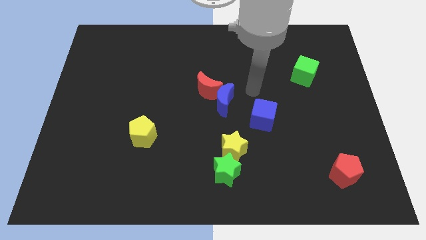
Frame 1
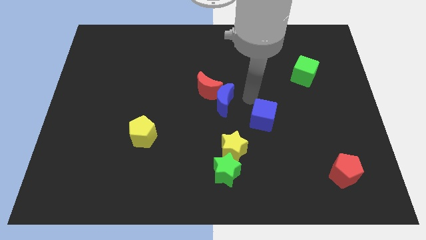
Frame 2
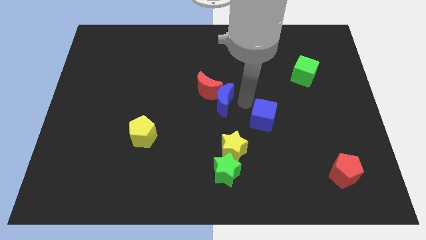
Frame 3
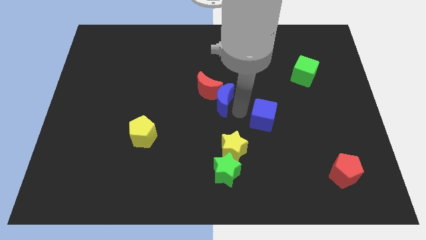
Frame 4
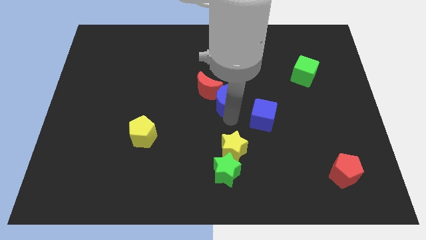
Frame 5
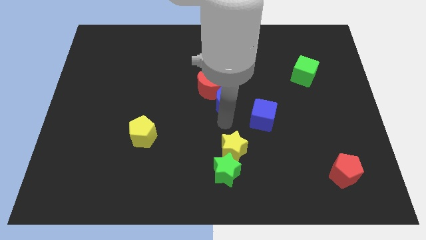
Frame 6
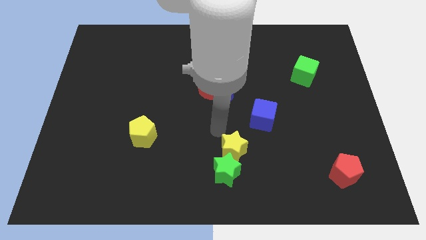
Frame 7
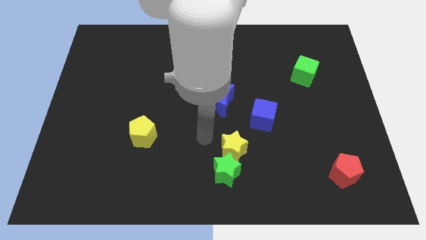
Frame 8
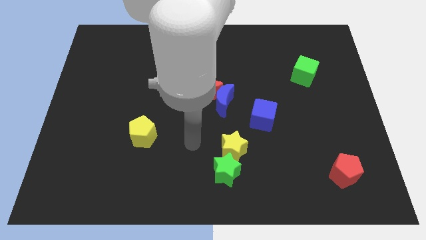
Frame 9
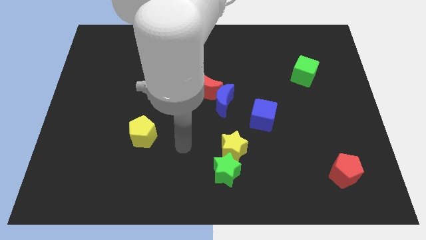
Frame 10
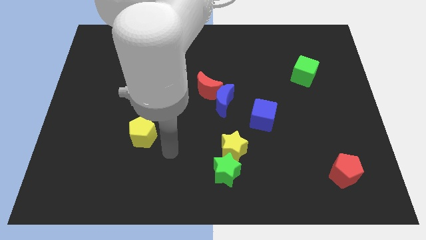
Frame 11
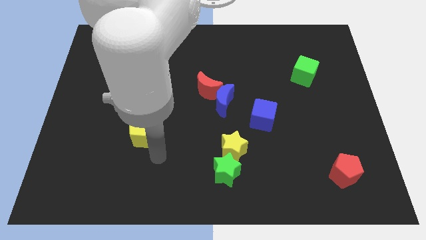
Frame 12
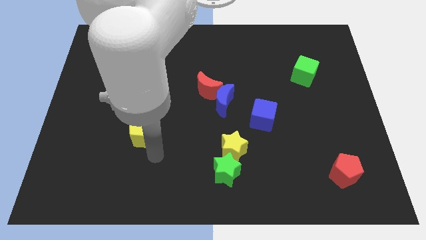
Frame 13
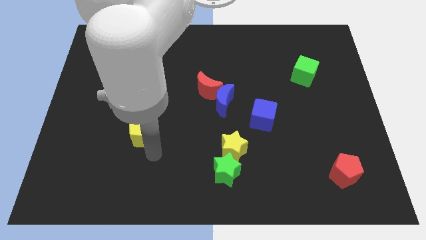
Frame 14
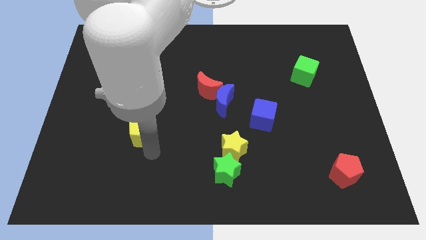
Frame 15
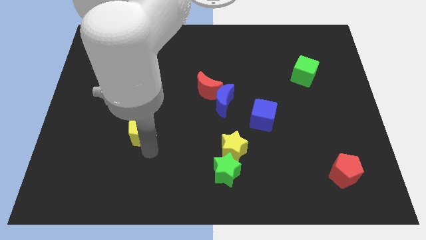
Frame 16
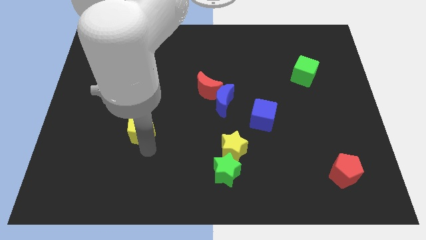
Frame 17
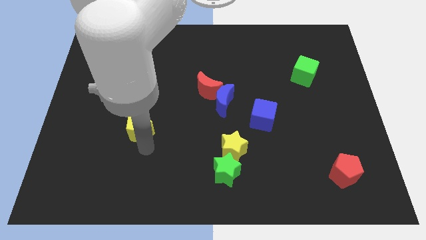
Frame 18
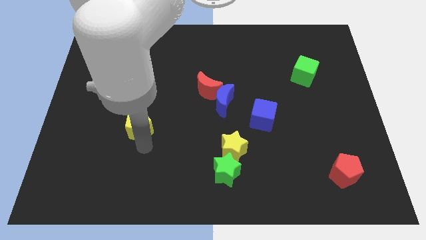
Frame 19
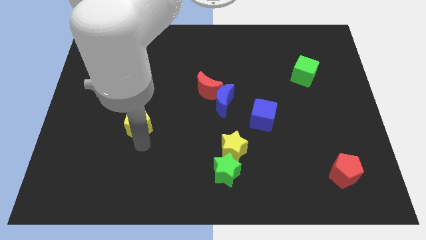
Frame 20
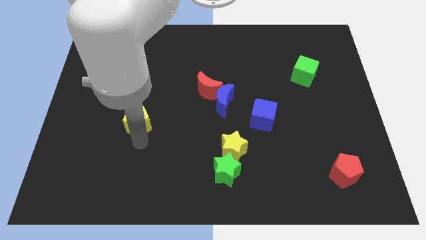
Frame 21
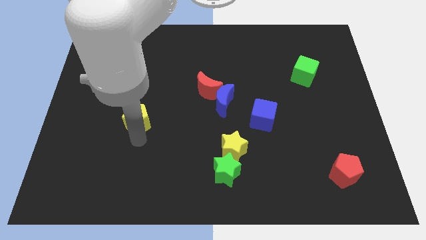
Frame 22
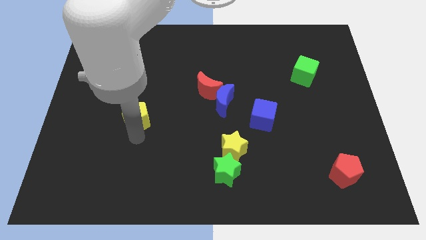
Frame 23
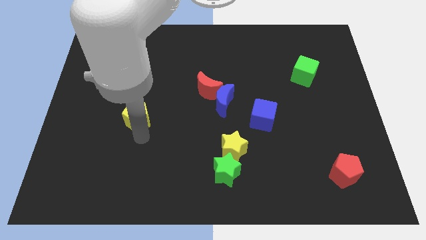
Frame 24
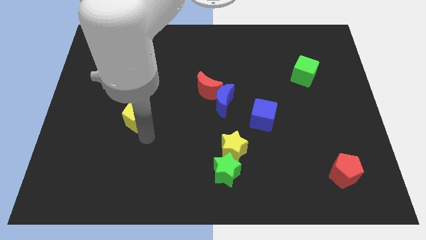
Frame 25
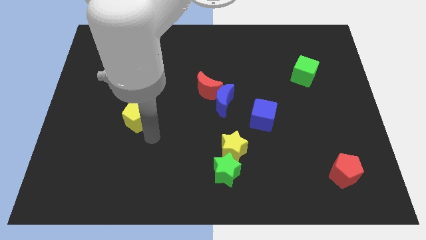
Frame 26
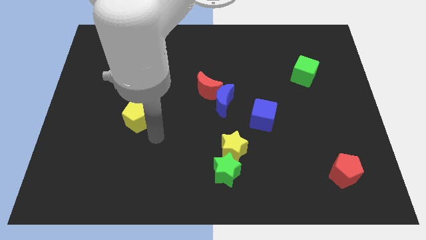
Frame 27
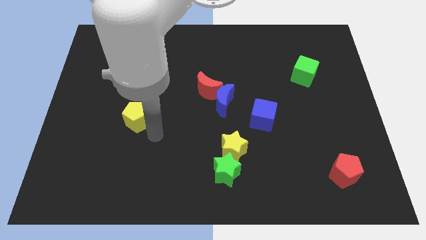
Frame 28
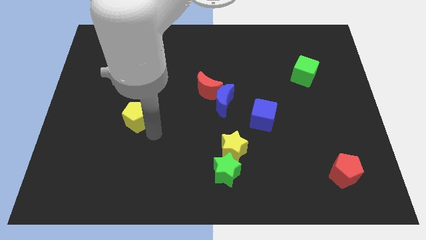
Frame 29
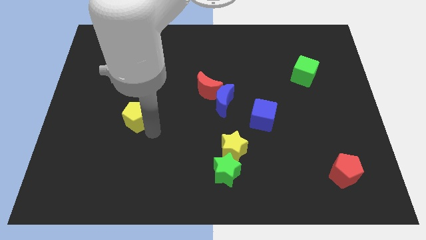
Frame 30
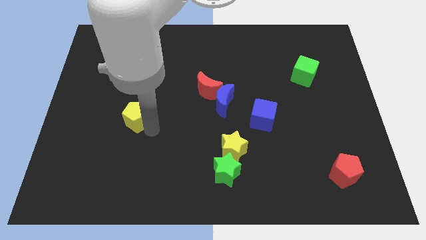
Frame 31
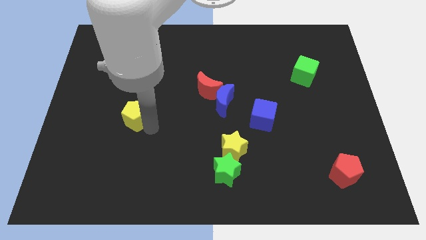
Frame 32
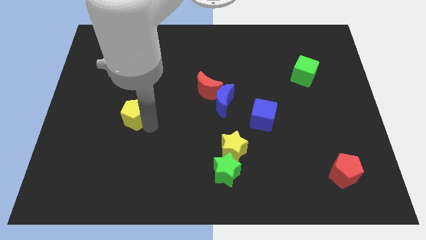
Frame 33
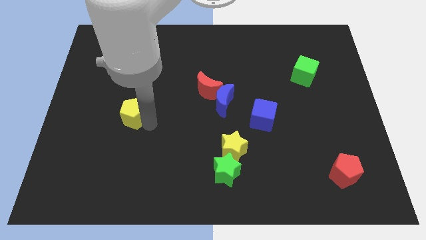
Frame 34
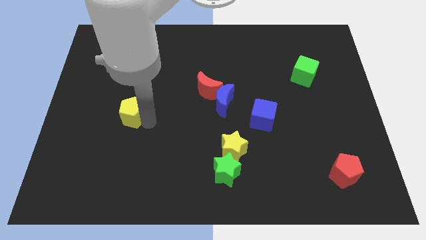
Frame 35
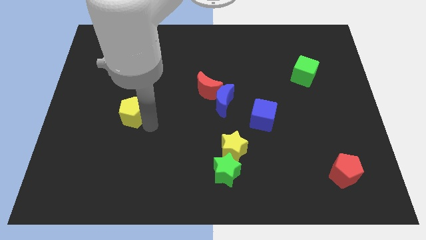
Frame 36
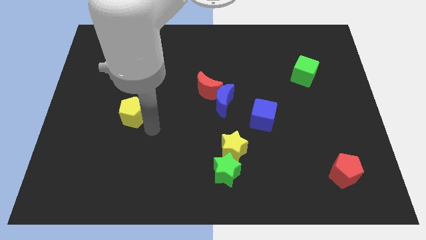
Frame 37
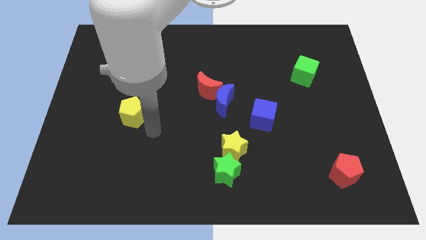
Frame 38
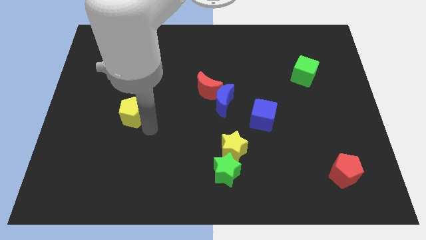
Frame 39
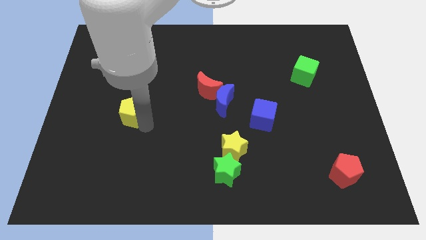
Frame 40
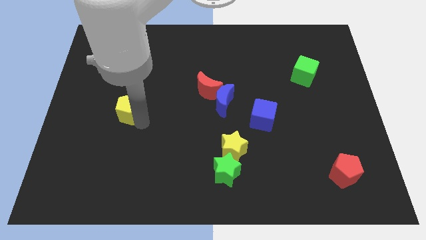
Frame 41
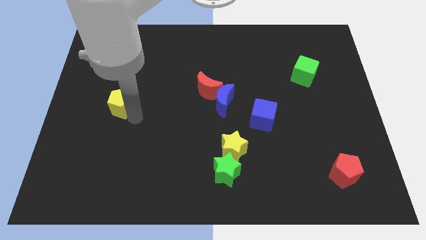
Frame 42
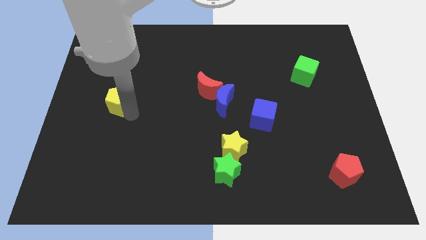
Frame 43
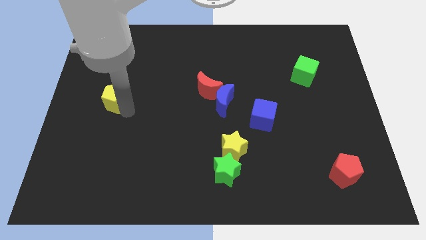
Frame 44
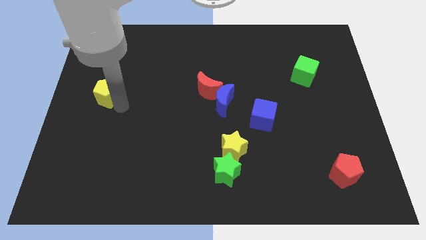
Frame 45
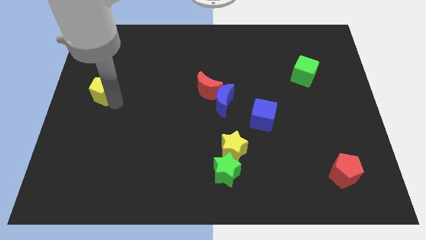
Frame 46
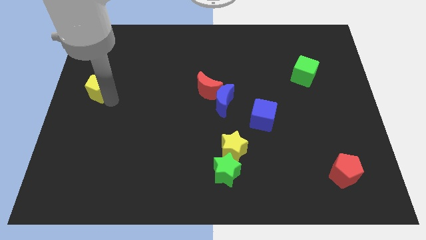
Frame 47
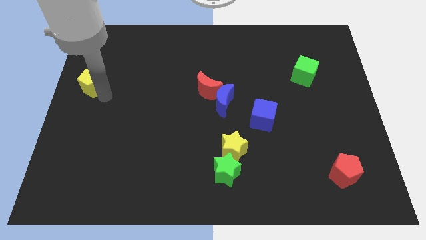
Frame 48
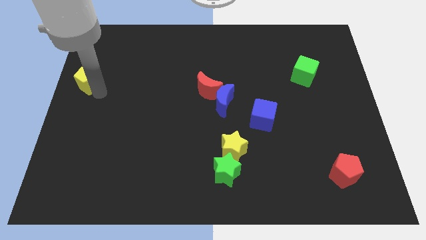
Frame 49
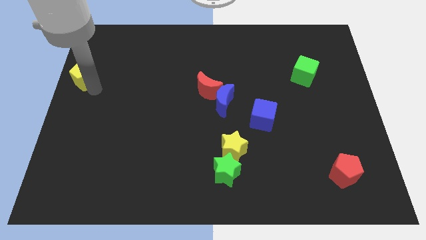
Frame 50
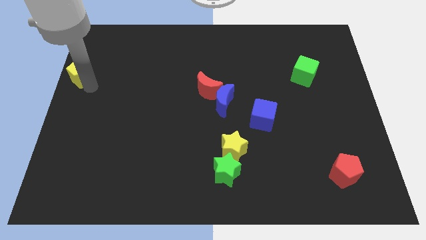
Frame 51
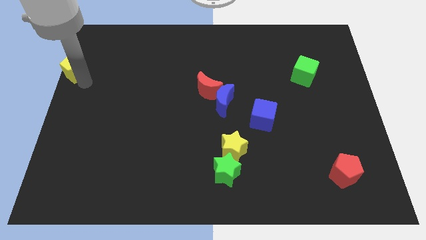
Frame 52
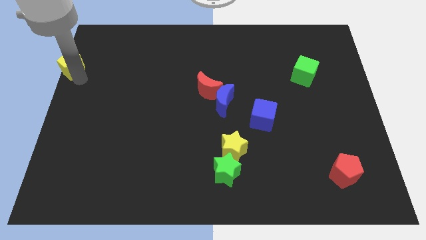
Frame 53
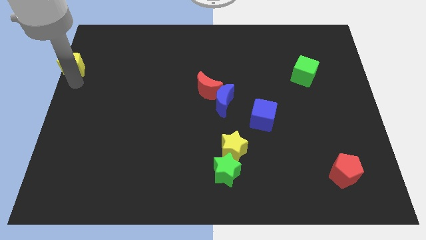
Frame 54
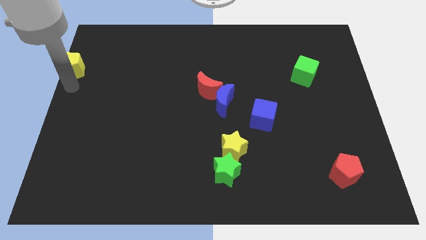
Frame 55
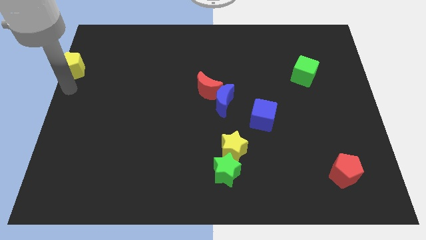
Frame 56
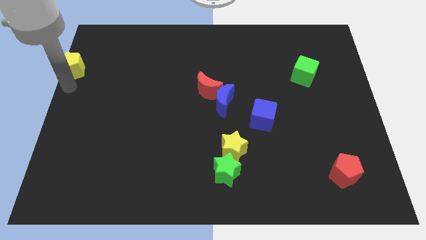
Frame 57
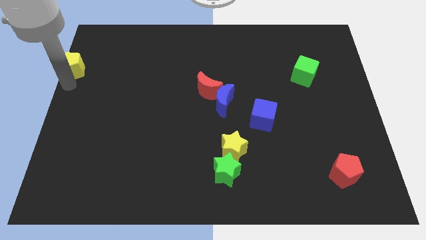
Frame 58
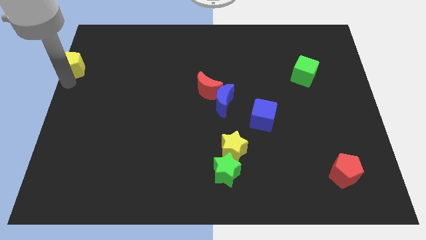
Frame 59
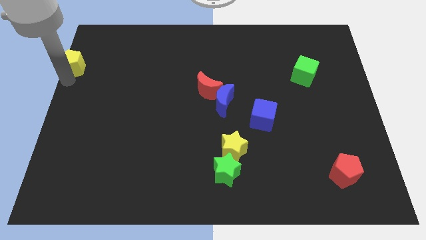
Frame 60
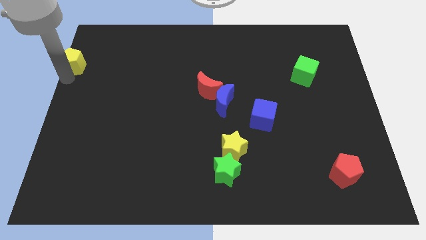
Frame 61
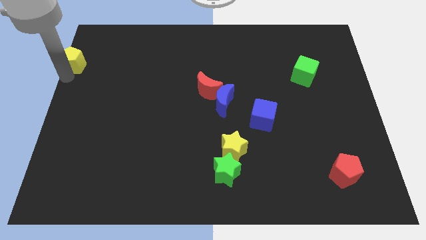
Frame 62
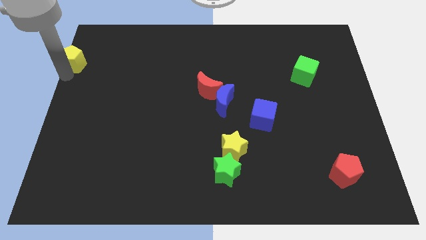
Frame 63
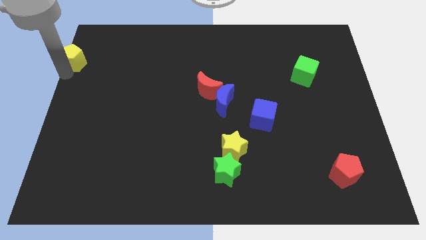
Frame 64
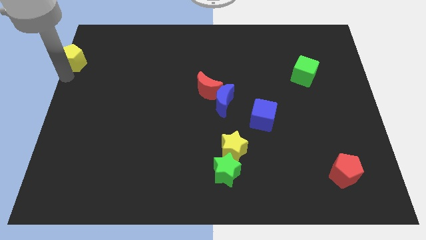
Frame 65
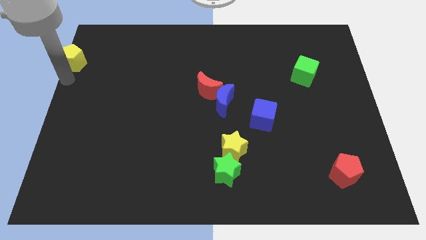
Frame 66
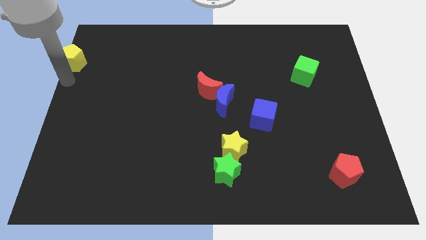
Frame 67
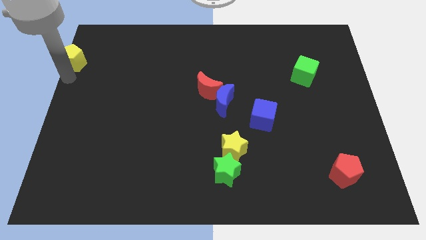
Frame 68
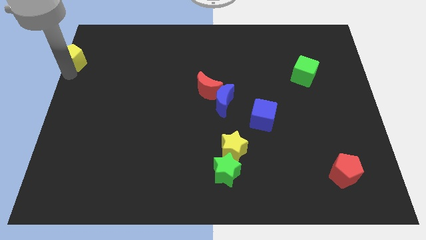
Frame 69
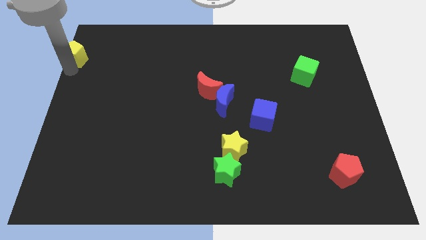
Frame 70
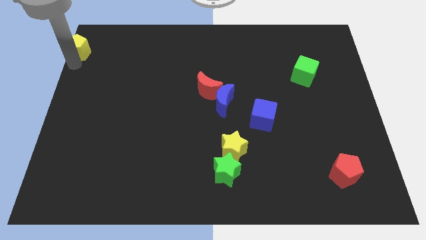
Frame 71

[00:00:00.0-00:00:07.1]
push the yellow pentagon to the top left
